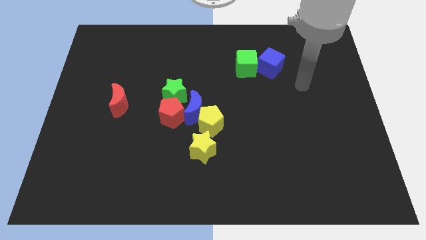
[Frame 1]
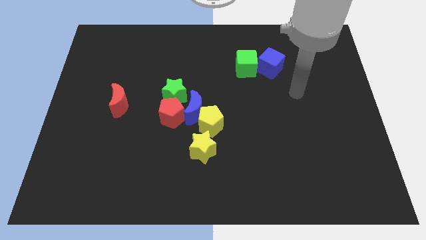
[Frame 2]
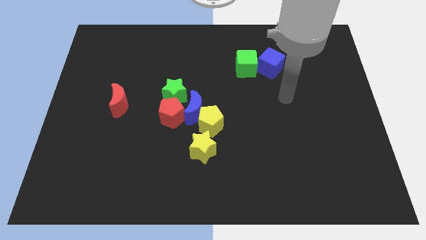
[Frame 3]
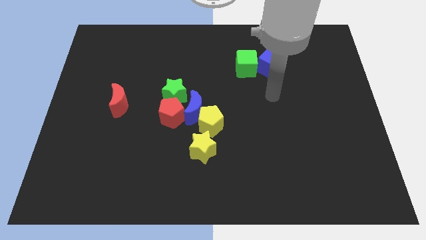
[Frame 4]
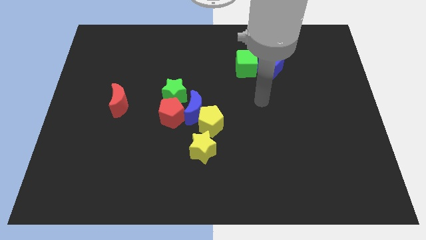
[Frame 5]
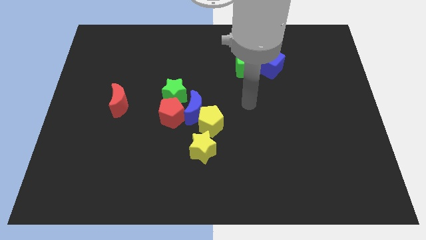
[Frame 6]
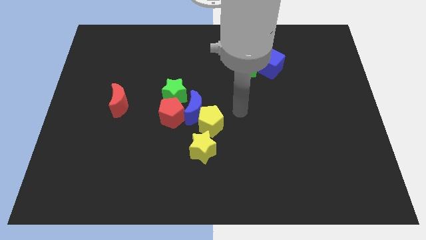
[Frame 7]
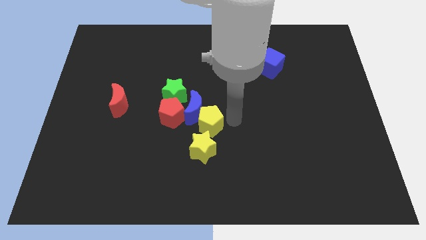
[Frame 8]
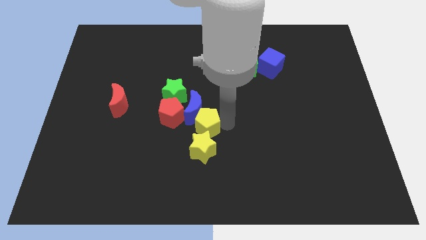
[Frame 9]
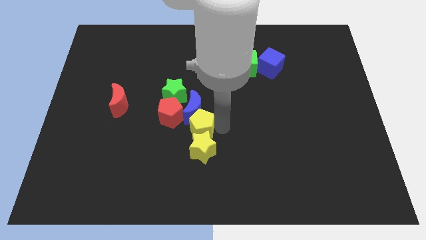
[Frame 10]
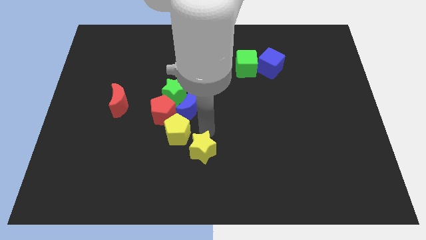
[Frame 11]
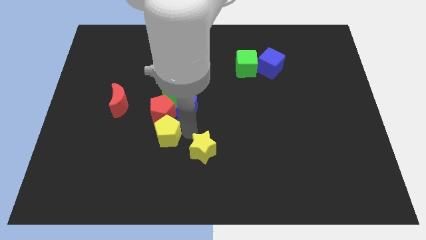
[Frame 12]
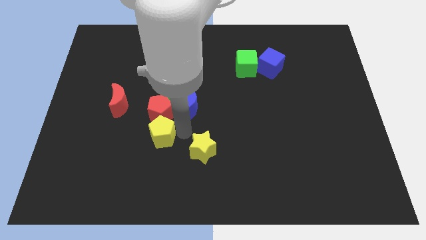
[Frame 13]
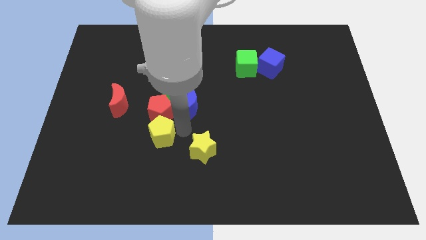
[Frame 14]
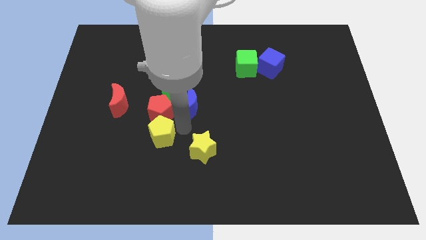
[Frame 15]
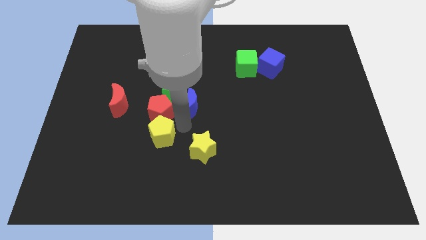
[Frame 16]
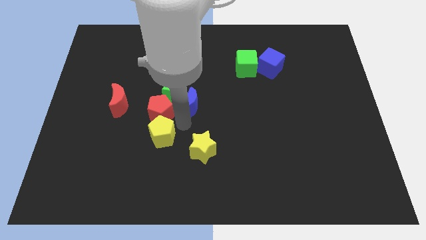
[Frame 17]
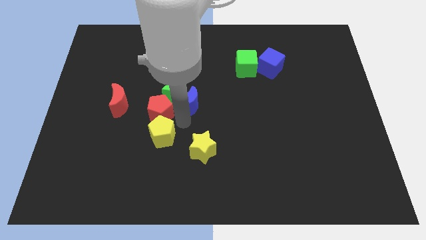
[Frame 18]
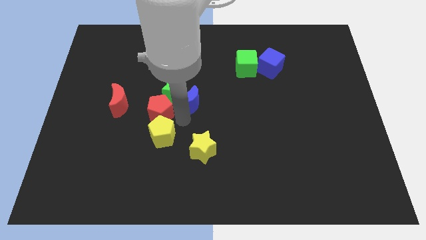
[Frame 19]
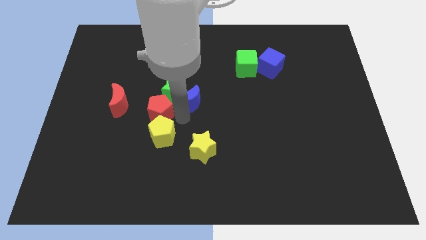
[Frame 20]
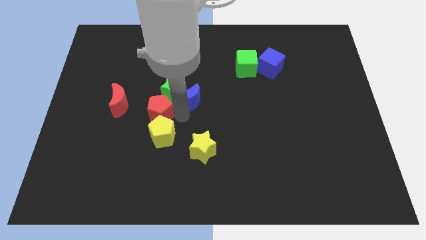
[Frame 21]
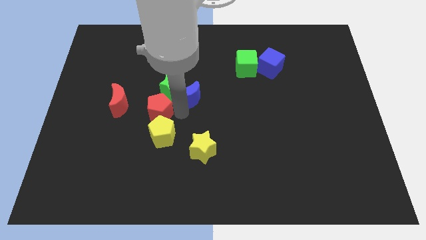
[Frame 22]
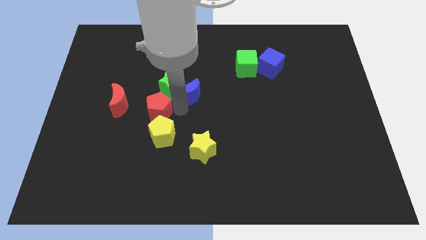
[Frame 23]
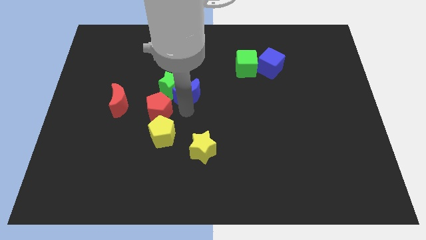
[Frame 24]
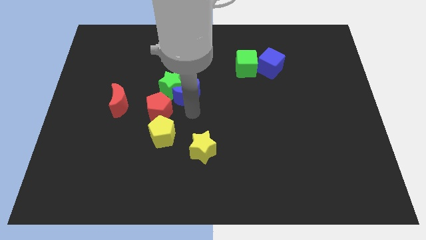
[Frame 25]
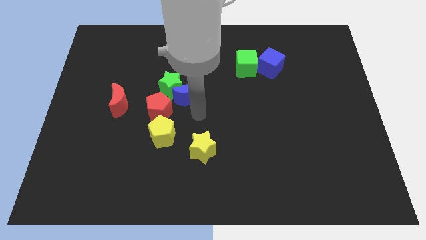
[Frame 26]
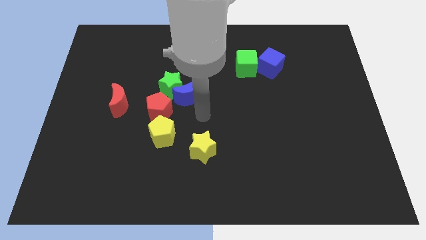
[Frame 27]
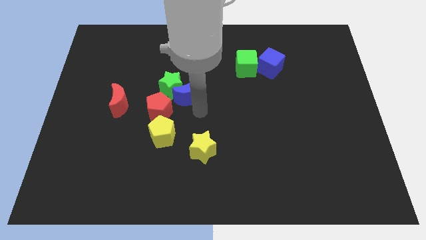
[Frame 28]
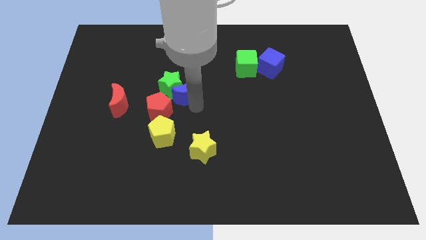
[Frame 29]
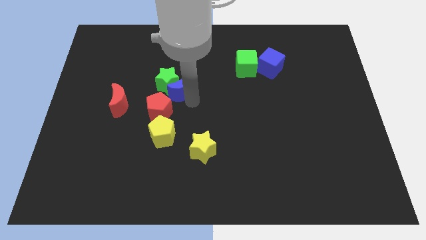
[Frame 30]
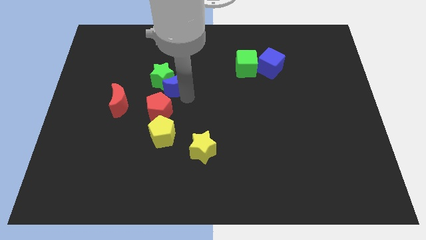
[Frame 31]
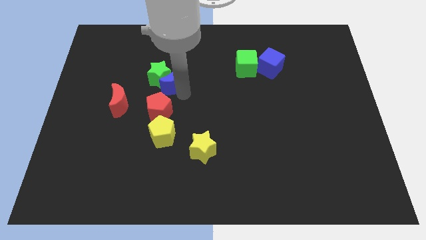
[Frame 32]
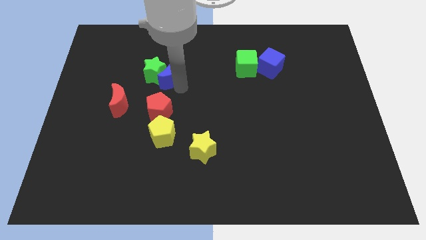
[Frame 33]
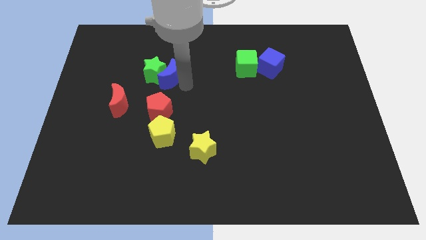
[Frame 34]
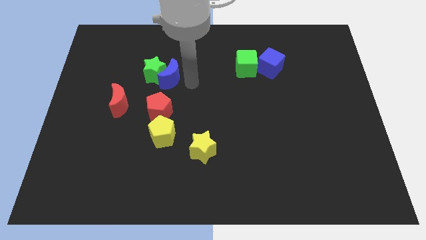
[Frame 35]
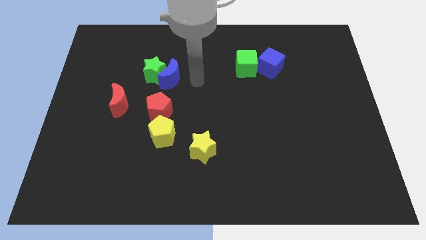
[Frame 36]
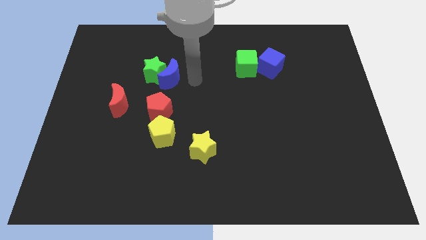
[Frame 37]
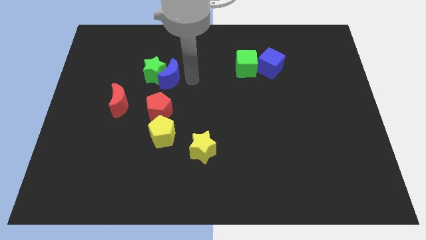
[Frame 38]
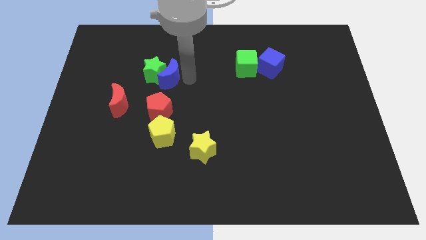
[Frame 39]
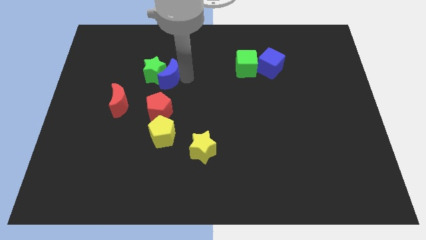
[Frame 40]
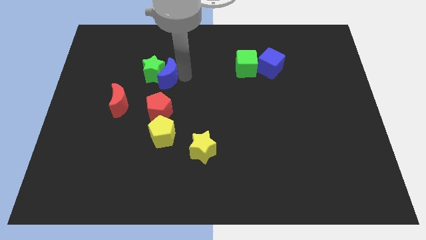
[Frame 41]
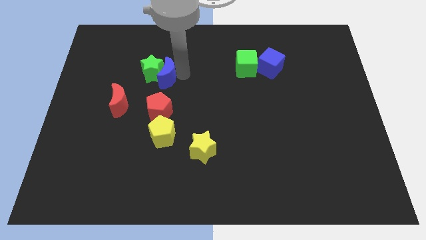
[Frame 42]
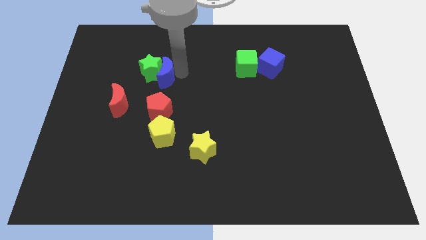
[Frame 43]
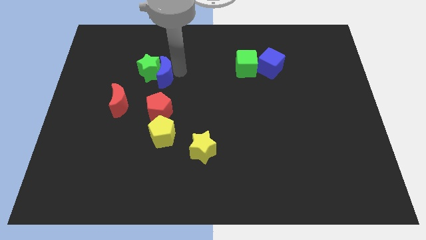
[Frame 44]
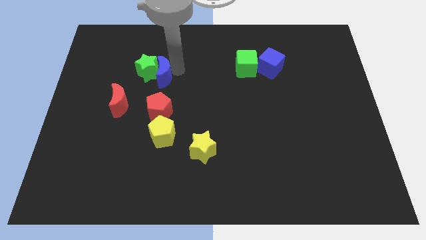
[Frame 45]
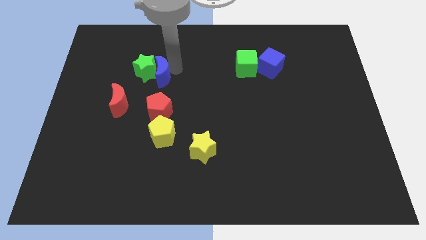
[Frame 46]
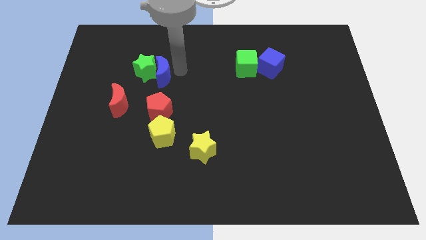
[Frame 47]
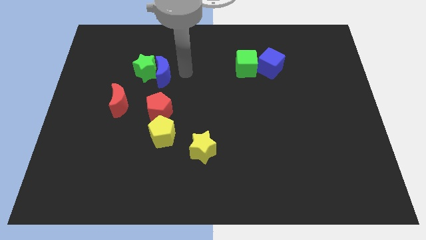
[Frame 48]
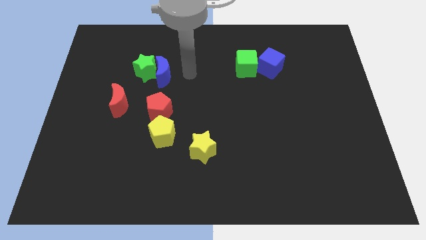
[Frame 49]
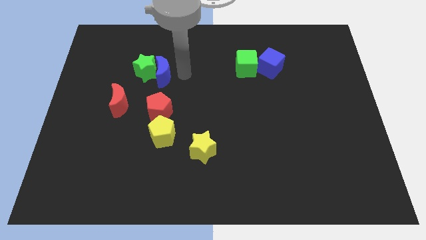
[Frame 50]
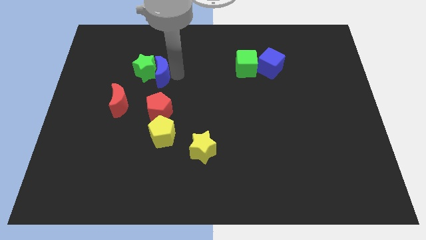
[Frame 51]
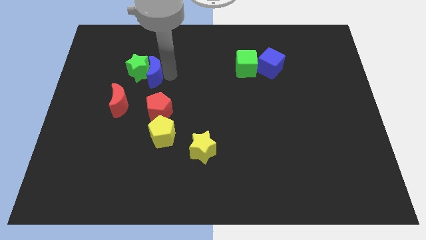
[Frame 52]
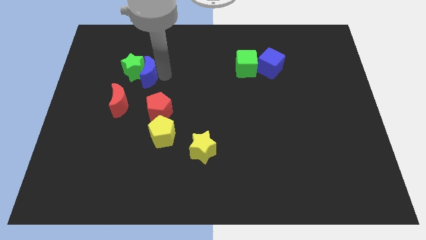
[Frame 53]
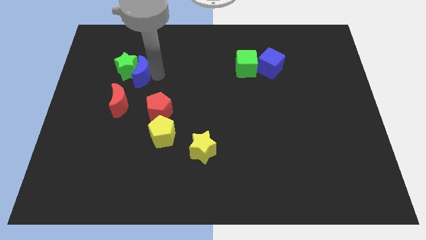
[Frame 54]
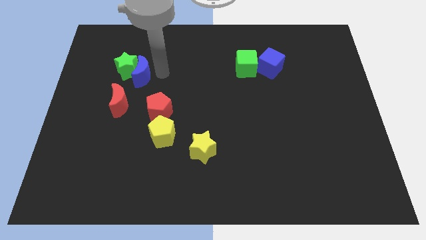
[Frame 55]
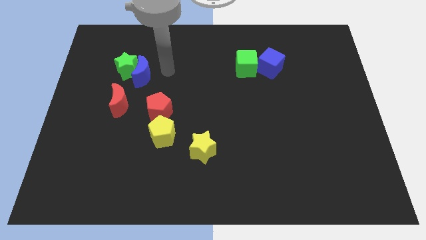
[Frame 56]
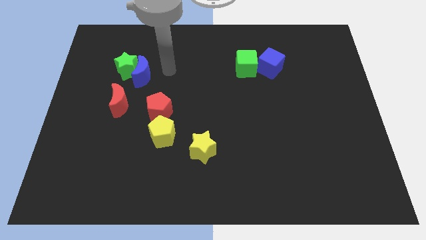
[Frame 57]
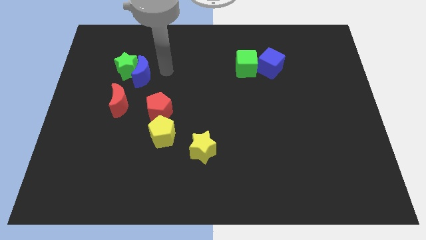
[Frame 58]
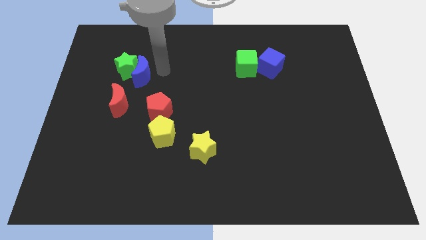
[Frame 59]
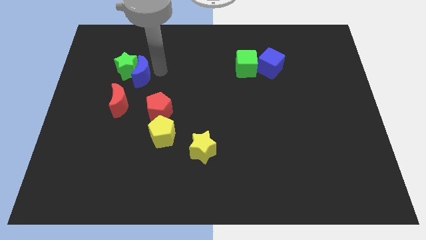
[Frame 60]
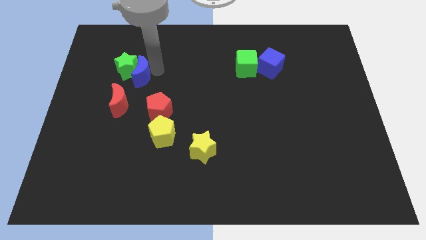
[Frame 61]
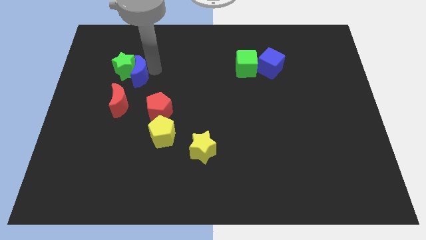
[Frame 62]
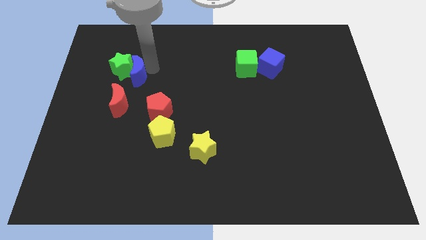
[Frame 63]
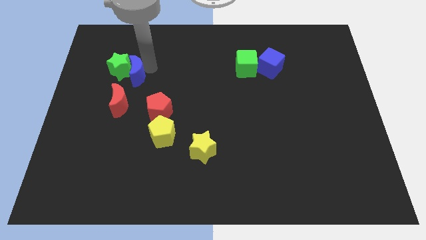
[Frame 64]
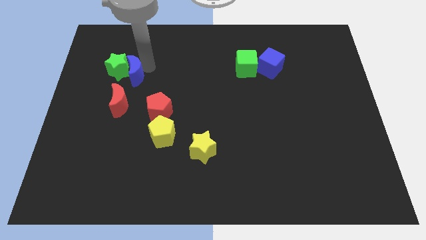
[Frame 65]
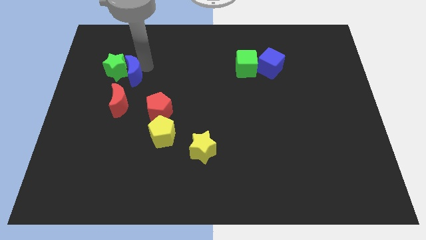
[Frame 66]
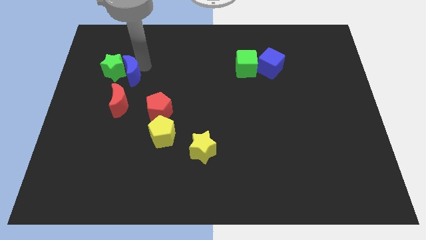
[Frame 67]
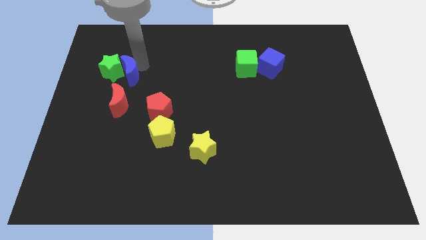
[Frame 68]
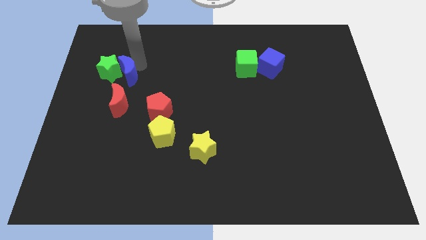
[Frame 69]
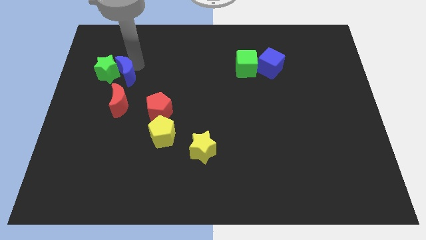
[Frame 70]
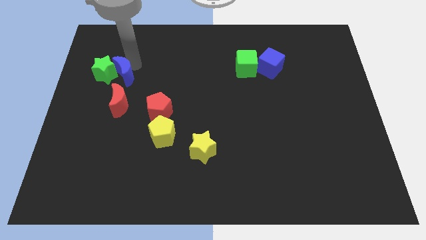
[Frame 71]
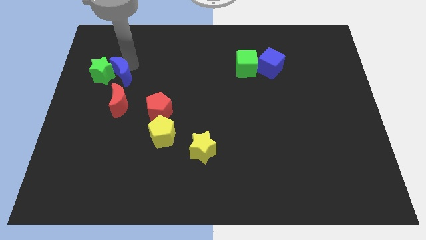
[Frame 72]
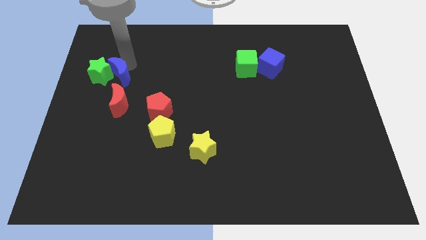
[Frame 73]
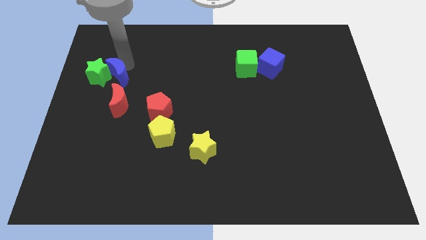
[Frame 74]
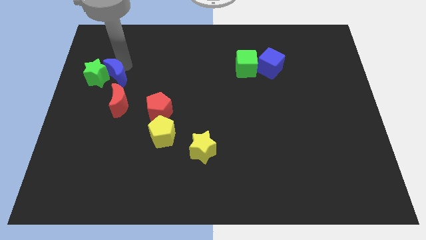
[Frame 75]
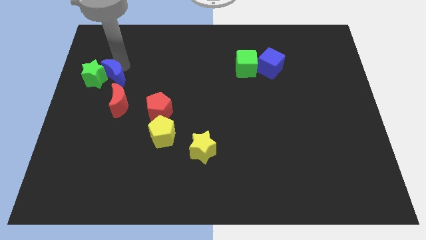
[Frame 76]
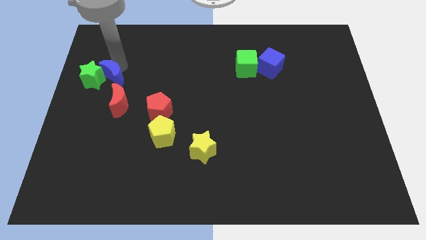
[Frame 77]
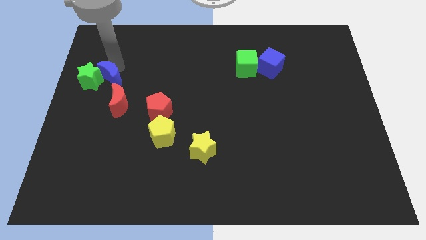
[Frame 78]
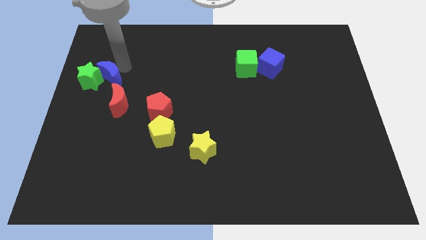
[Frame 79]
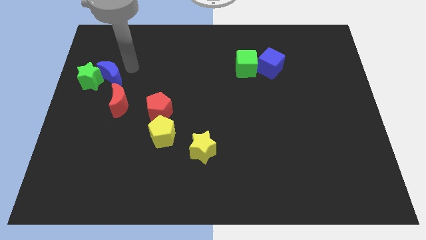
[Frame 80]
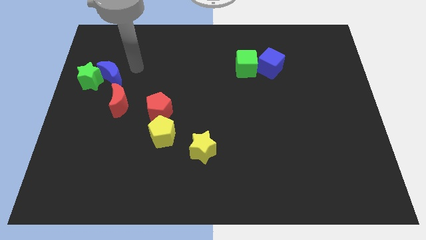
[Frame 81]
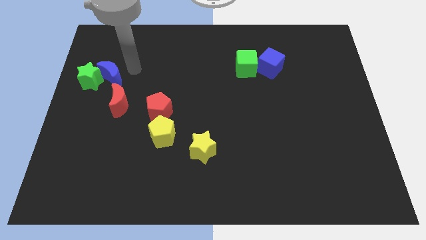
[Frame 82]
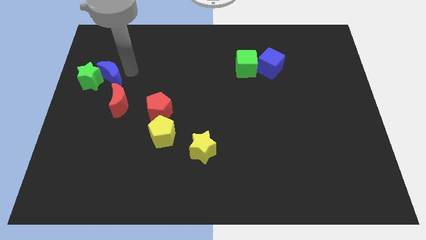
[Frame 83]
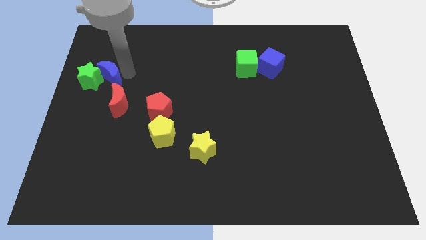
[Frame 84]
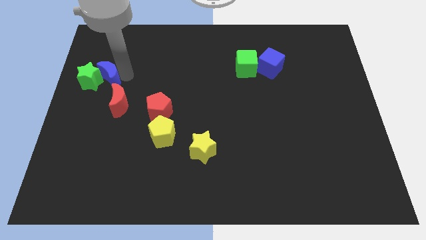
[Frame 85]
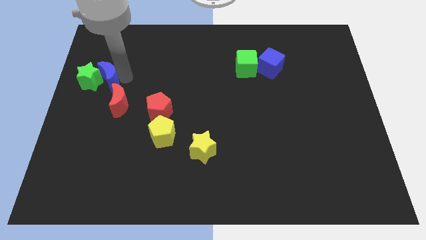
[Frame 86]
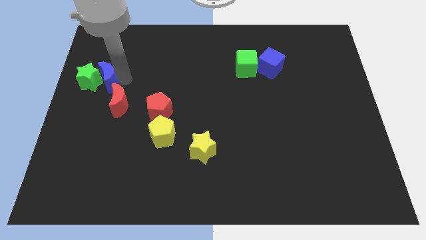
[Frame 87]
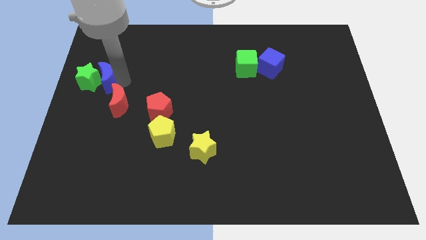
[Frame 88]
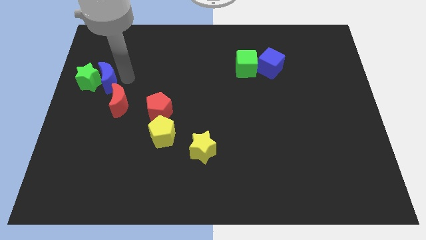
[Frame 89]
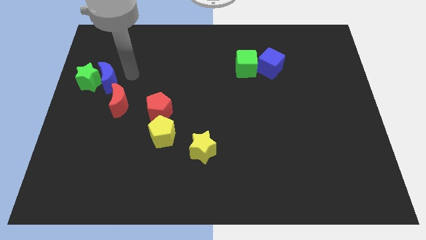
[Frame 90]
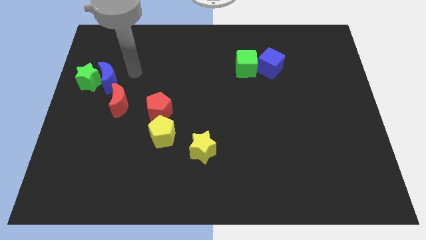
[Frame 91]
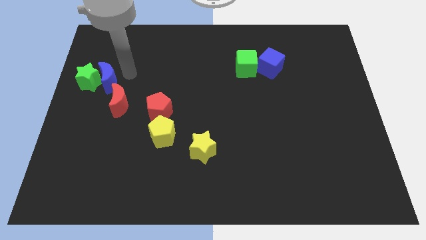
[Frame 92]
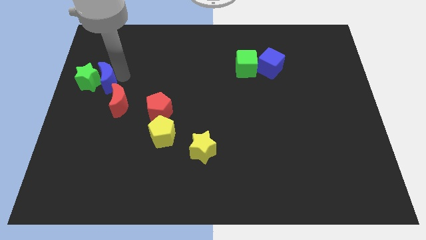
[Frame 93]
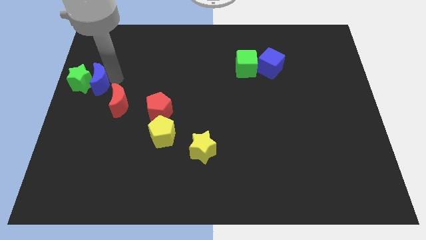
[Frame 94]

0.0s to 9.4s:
move the blue moon to the left side
